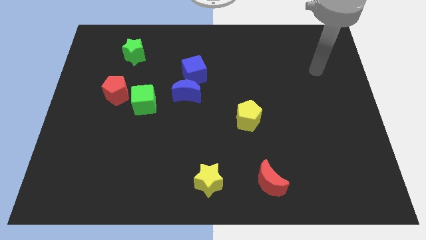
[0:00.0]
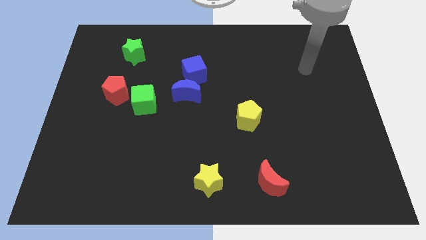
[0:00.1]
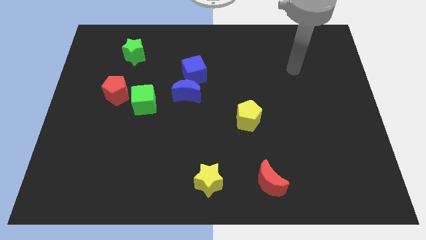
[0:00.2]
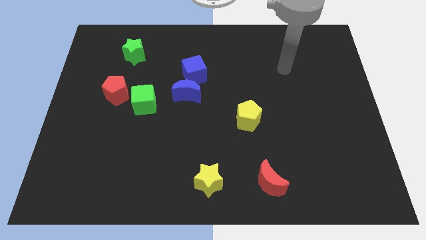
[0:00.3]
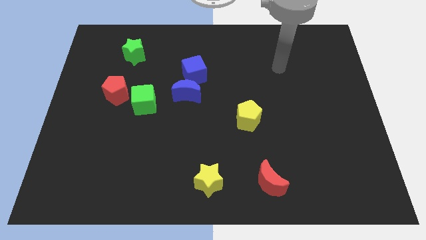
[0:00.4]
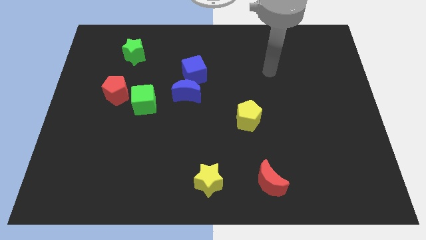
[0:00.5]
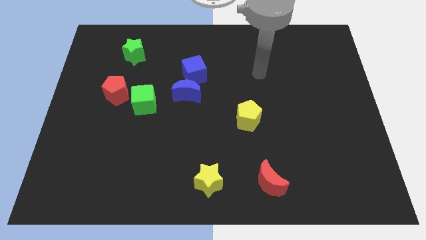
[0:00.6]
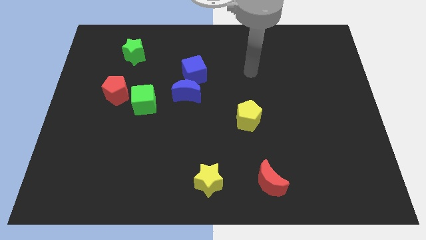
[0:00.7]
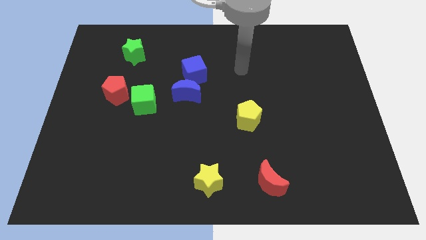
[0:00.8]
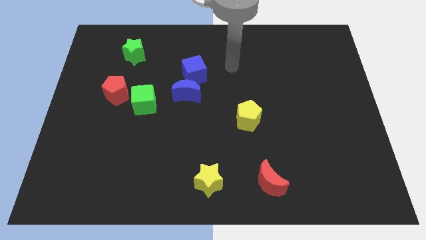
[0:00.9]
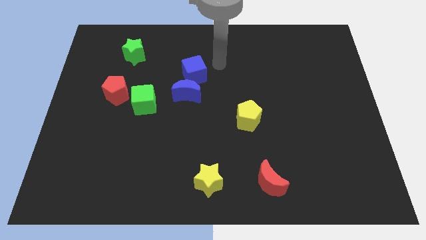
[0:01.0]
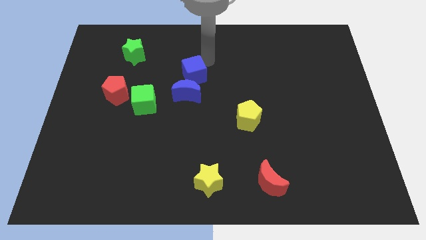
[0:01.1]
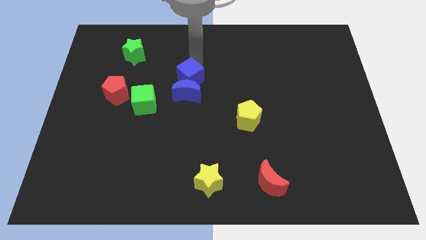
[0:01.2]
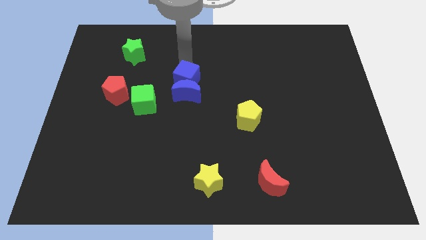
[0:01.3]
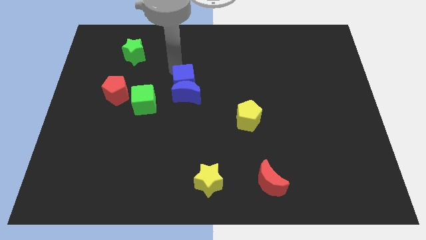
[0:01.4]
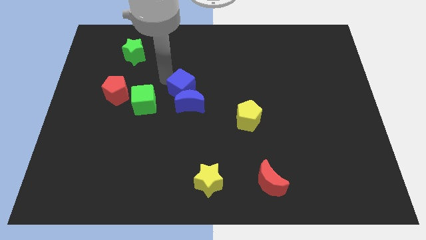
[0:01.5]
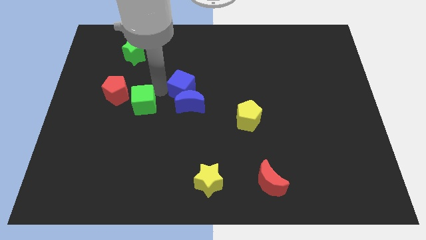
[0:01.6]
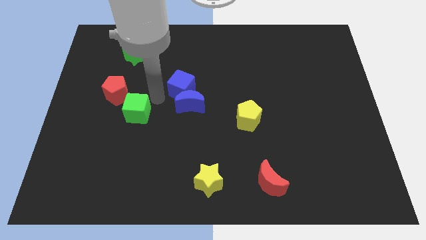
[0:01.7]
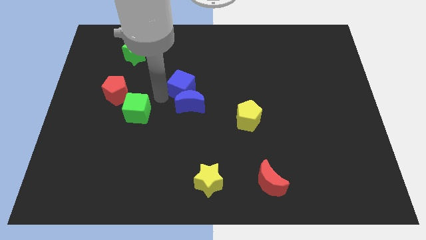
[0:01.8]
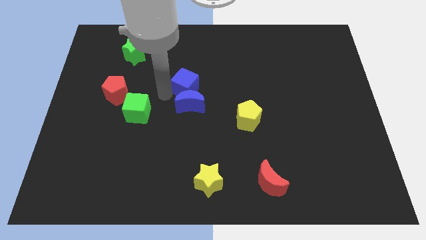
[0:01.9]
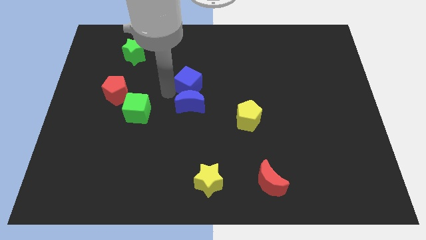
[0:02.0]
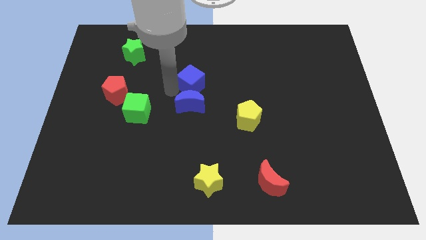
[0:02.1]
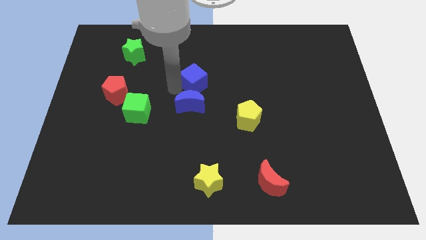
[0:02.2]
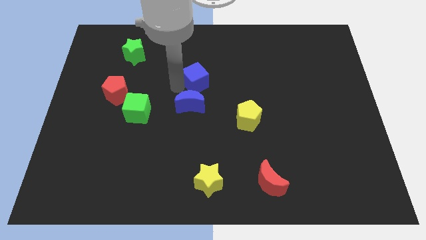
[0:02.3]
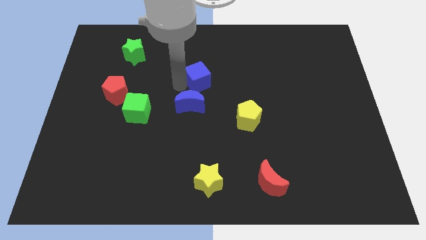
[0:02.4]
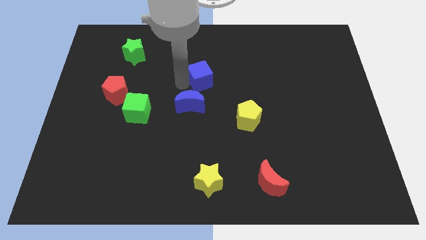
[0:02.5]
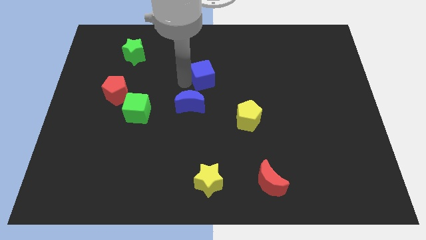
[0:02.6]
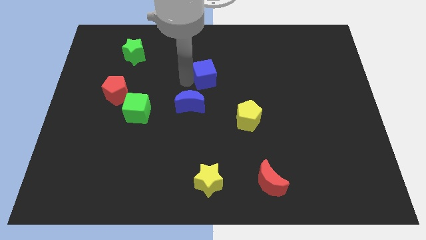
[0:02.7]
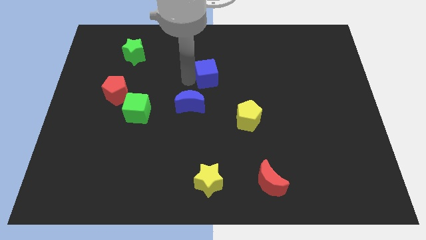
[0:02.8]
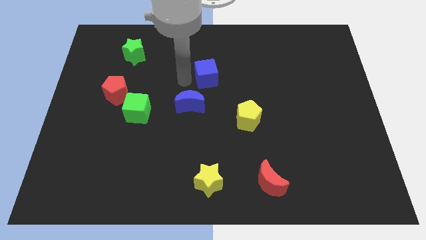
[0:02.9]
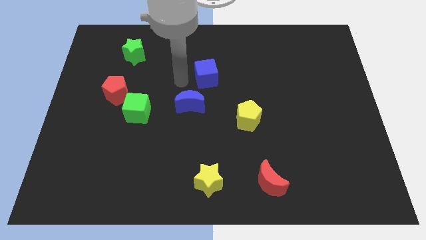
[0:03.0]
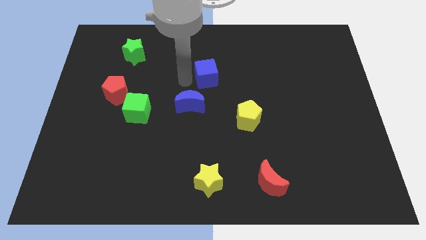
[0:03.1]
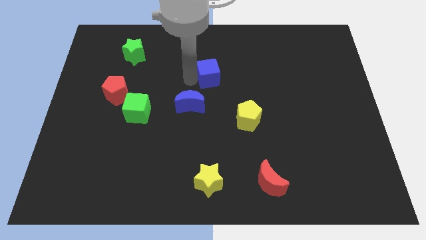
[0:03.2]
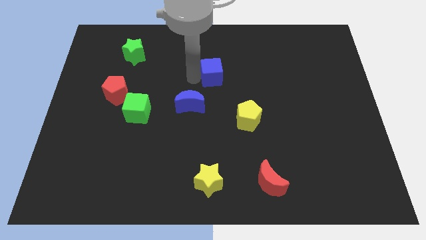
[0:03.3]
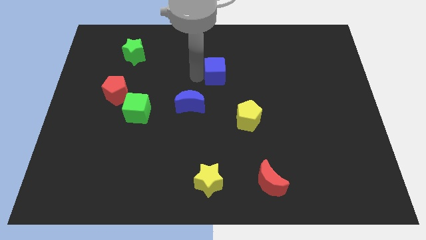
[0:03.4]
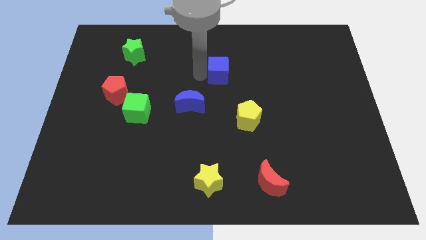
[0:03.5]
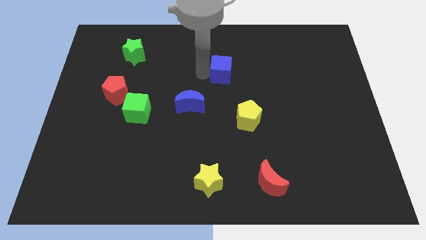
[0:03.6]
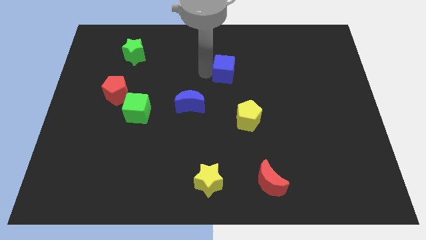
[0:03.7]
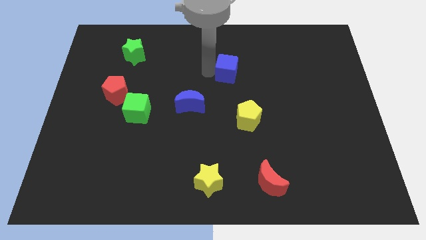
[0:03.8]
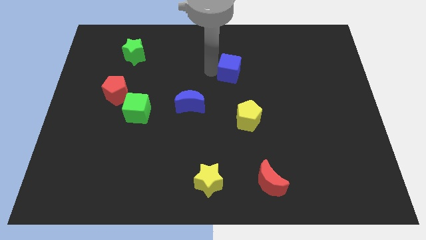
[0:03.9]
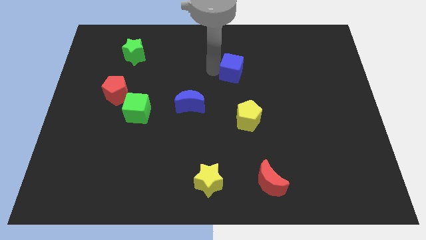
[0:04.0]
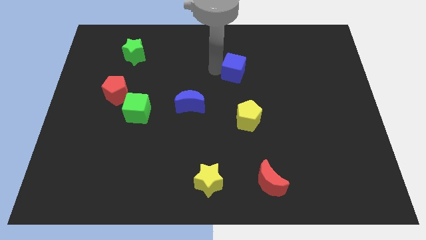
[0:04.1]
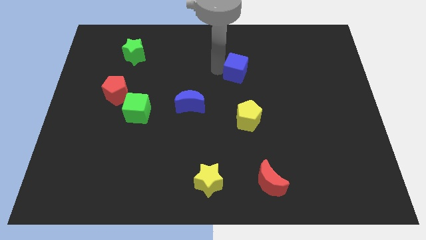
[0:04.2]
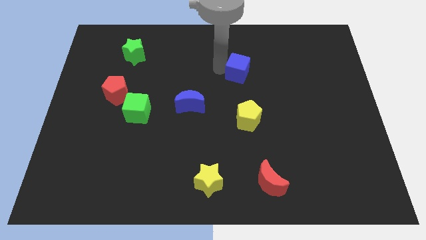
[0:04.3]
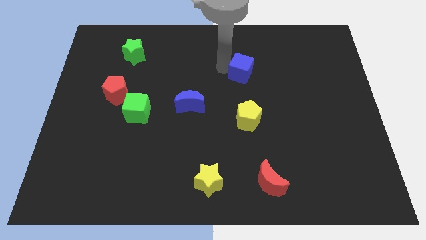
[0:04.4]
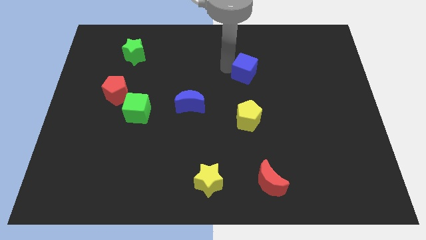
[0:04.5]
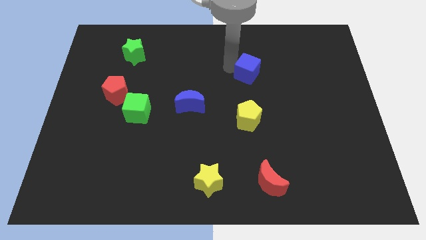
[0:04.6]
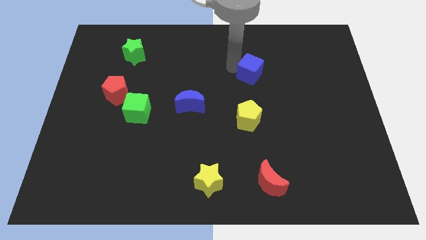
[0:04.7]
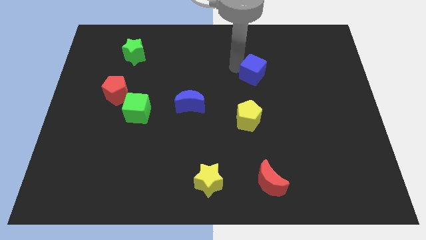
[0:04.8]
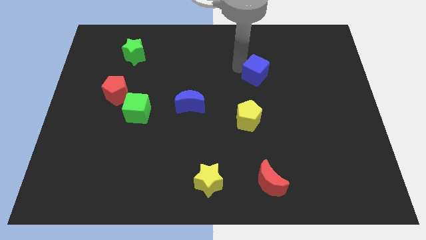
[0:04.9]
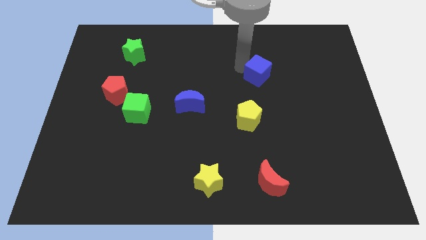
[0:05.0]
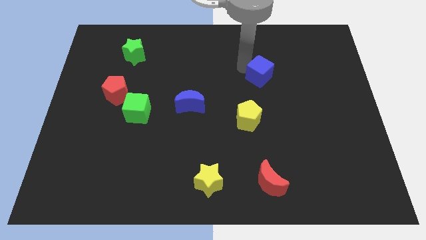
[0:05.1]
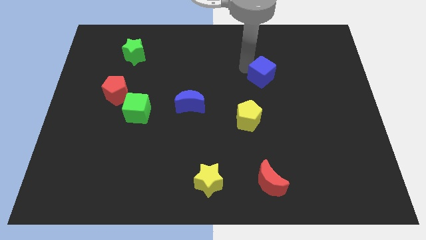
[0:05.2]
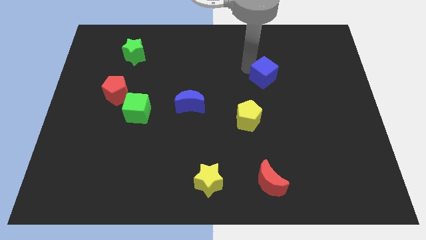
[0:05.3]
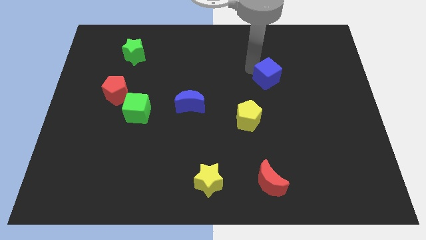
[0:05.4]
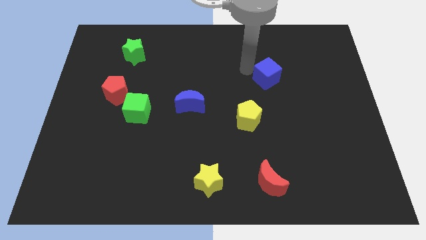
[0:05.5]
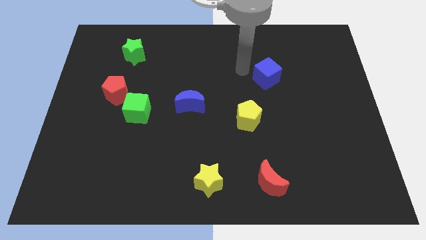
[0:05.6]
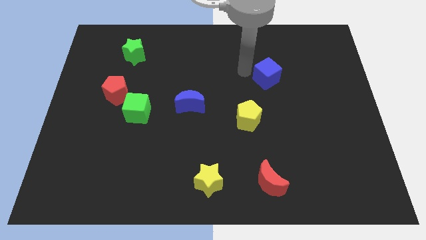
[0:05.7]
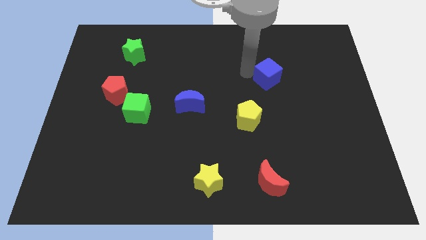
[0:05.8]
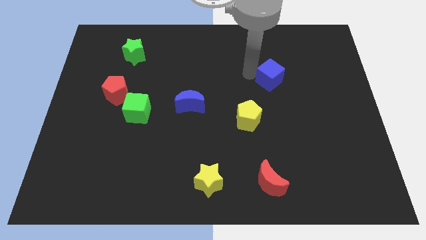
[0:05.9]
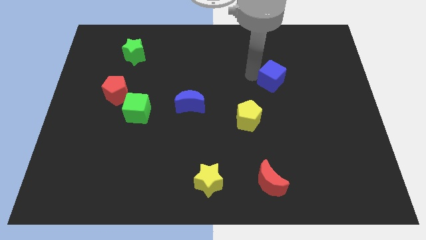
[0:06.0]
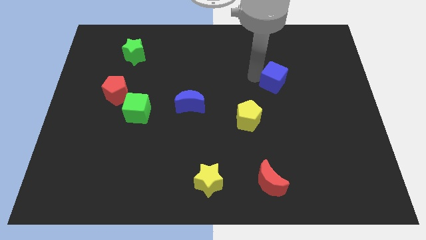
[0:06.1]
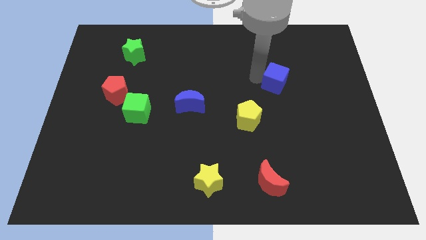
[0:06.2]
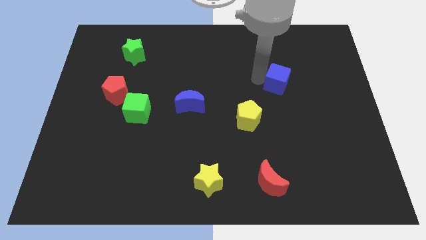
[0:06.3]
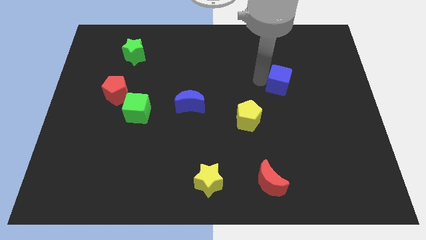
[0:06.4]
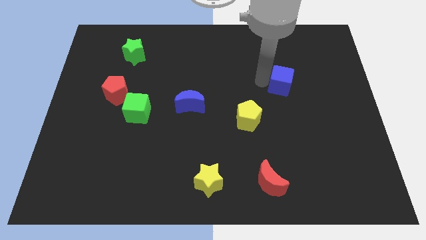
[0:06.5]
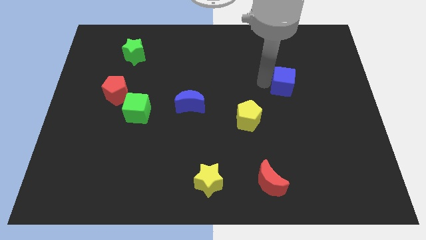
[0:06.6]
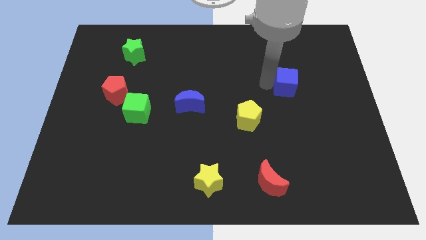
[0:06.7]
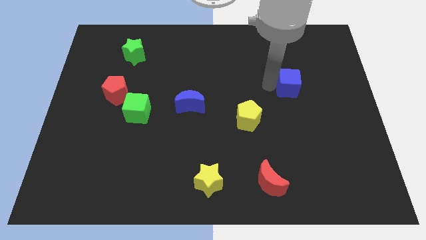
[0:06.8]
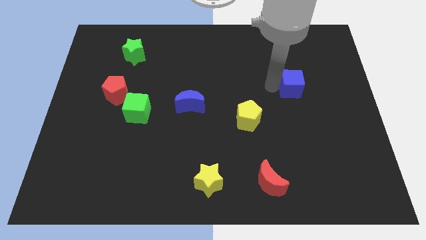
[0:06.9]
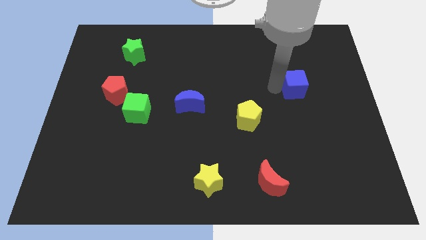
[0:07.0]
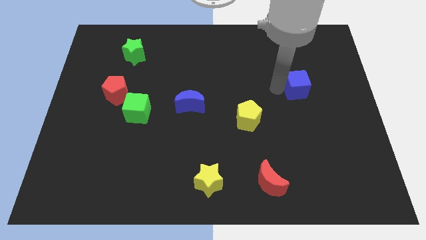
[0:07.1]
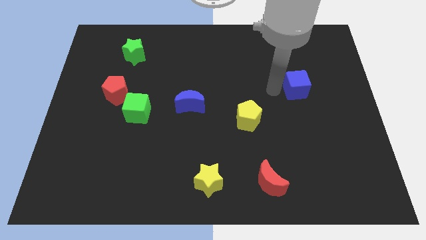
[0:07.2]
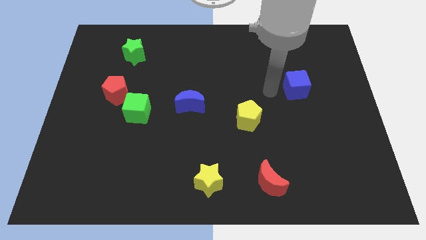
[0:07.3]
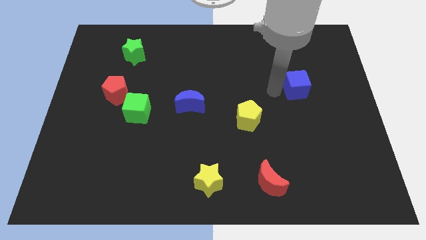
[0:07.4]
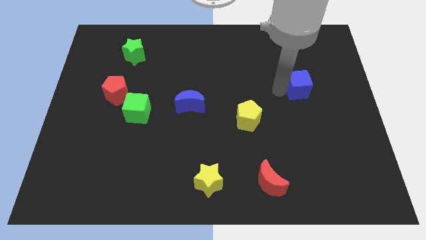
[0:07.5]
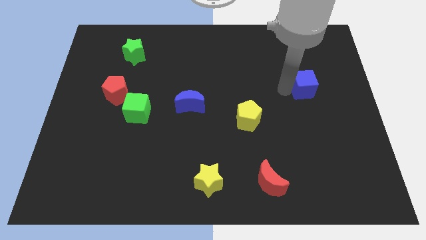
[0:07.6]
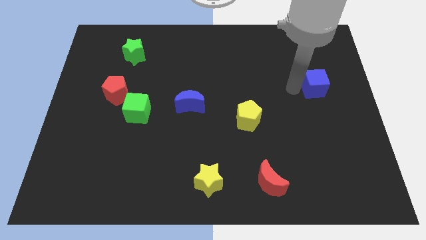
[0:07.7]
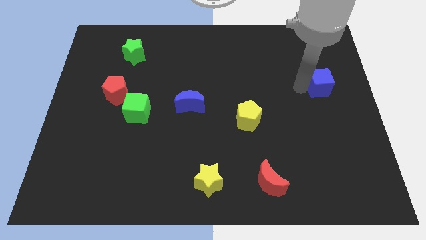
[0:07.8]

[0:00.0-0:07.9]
slide the blue cube to the right side
